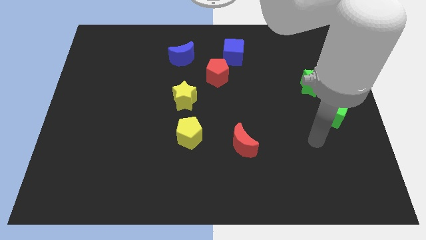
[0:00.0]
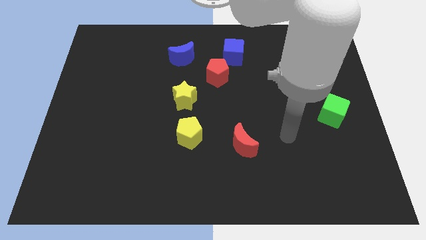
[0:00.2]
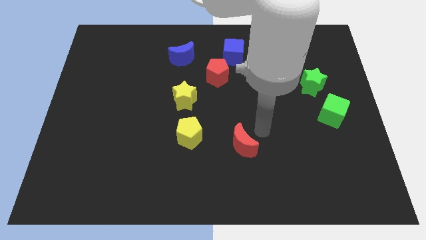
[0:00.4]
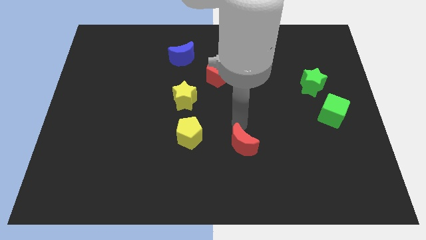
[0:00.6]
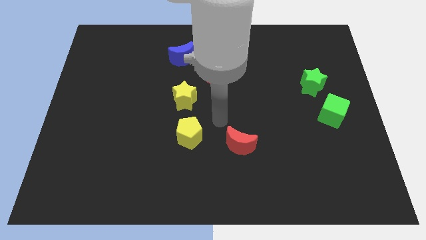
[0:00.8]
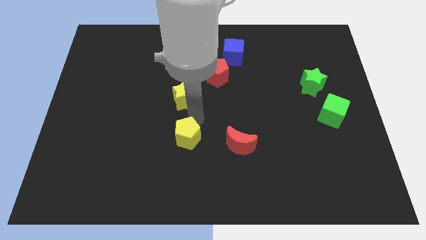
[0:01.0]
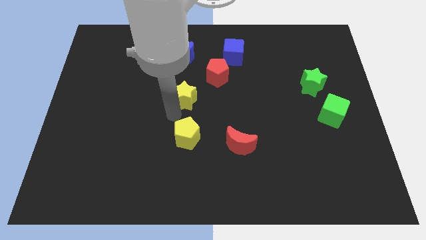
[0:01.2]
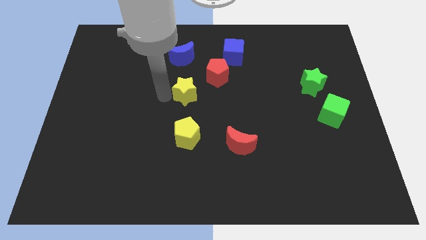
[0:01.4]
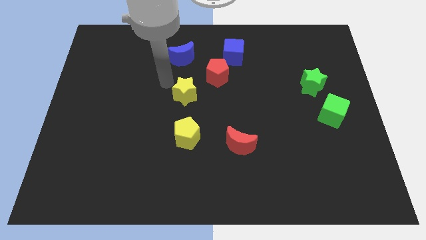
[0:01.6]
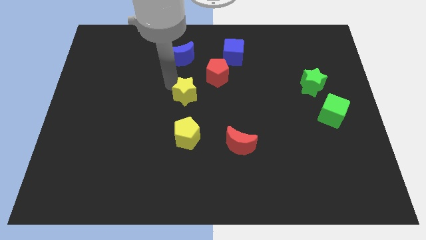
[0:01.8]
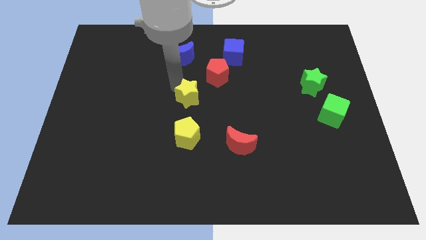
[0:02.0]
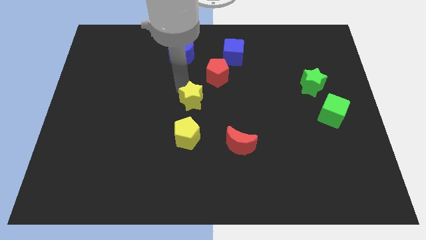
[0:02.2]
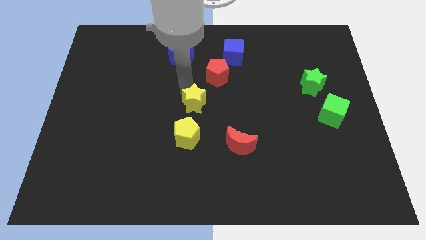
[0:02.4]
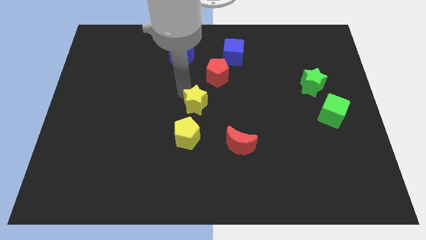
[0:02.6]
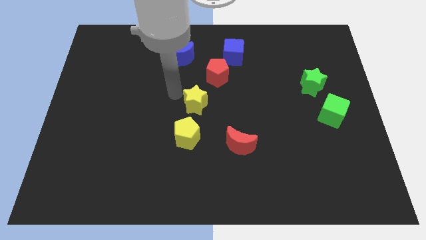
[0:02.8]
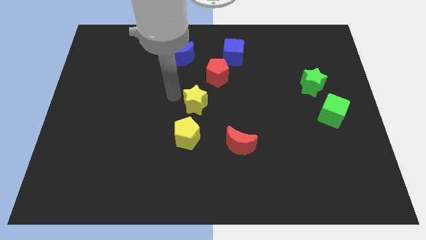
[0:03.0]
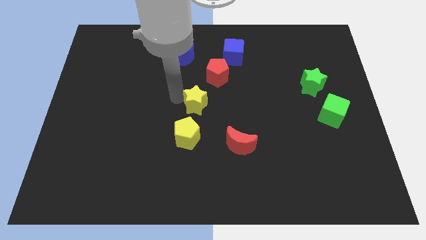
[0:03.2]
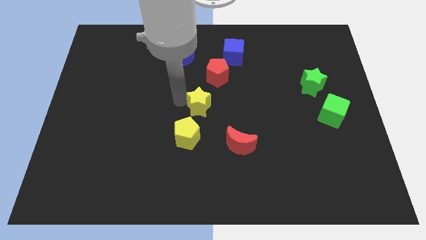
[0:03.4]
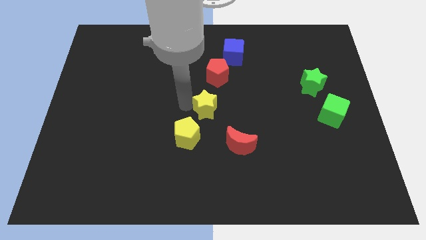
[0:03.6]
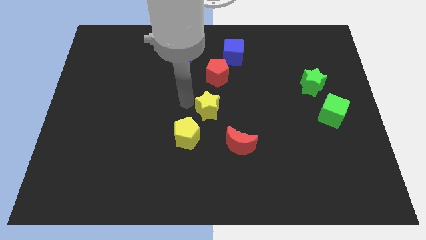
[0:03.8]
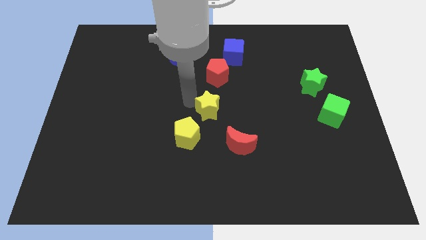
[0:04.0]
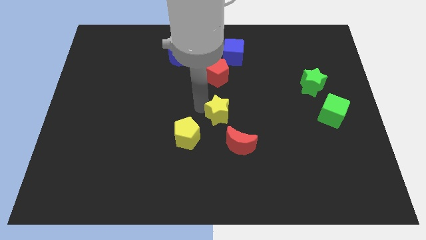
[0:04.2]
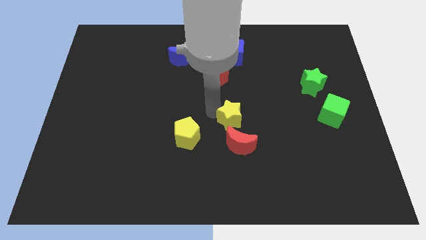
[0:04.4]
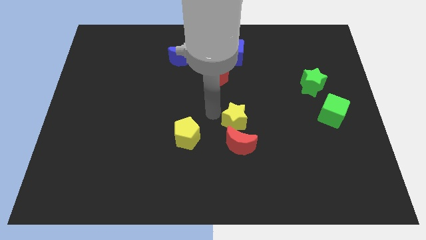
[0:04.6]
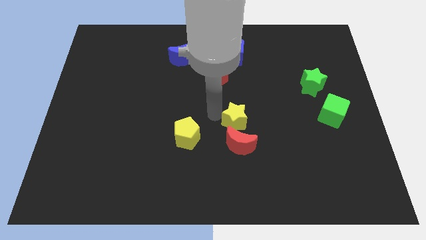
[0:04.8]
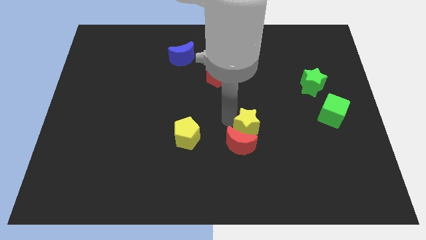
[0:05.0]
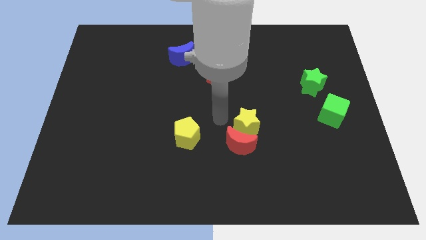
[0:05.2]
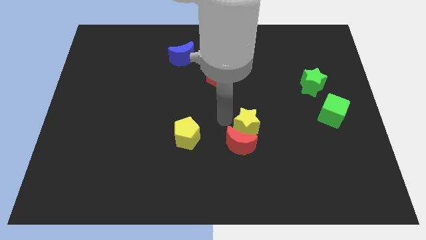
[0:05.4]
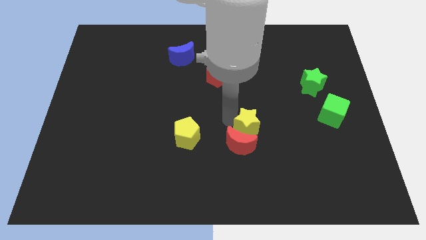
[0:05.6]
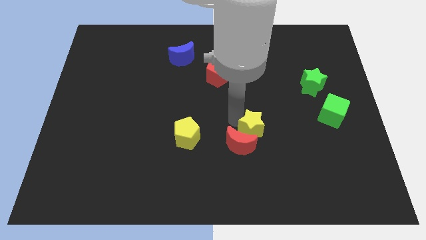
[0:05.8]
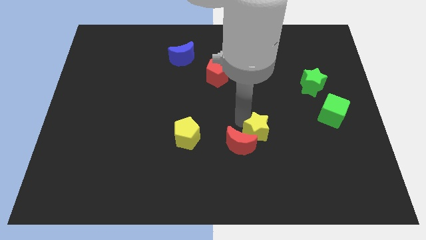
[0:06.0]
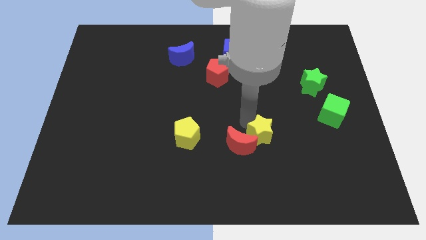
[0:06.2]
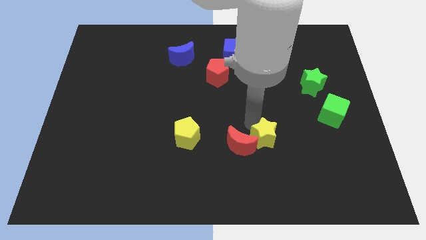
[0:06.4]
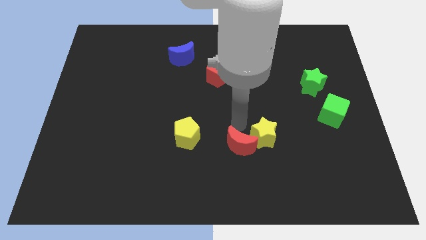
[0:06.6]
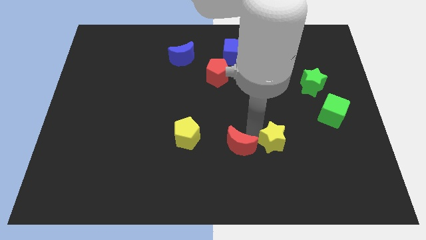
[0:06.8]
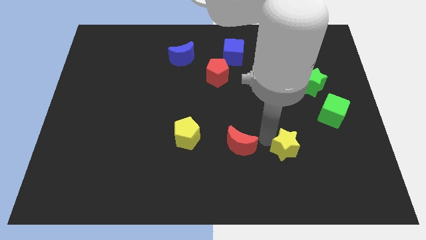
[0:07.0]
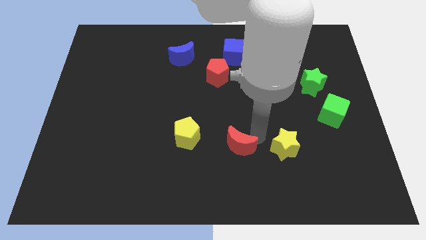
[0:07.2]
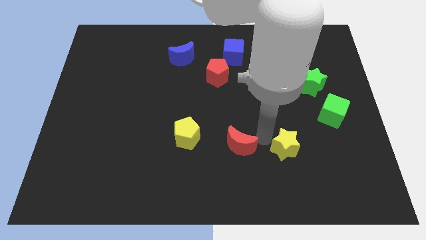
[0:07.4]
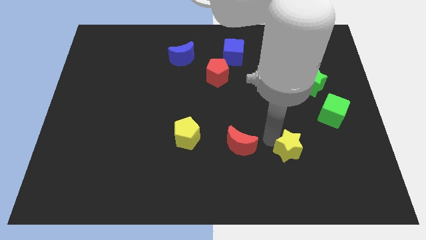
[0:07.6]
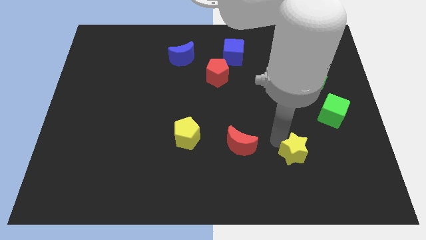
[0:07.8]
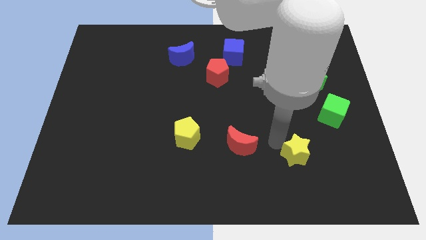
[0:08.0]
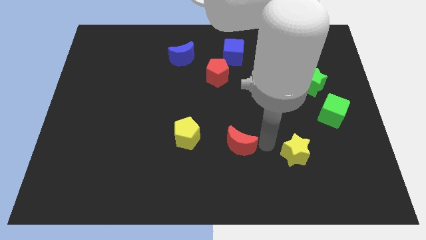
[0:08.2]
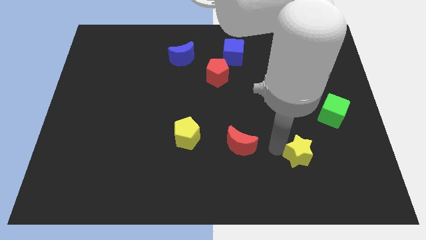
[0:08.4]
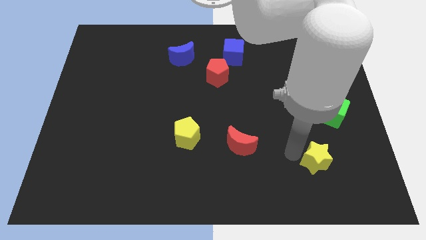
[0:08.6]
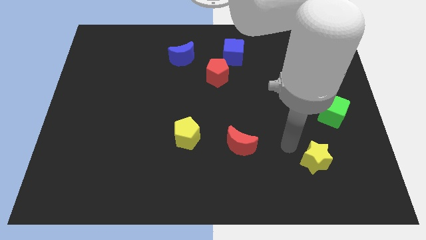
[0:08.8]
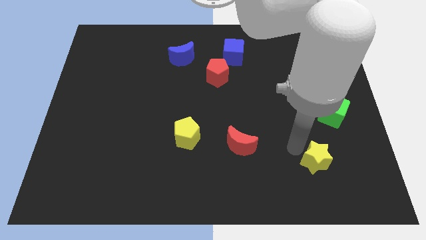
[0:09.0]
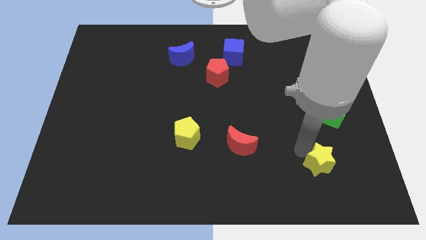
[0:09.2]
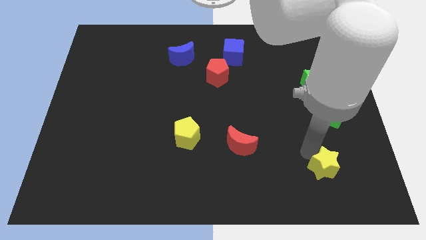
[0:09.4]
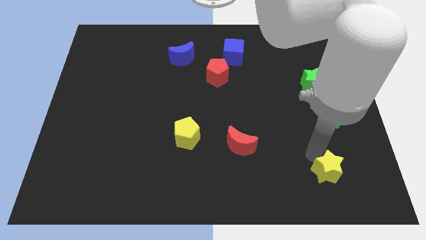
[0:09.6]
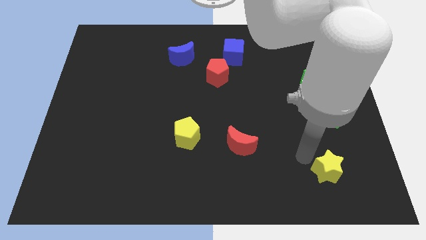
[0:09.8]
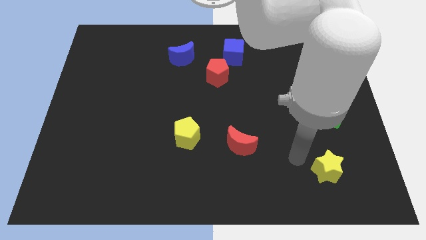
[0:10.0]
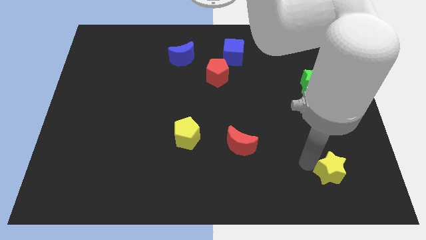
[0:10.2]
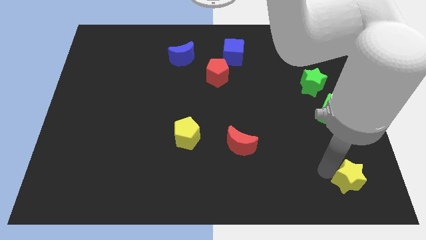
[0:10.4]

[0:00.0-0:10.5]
push the yellow star to the bottom right corner
